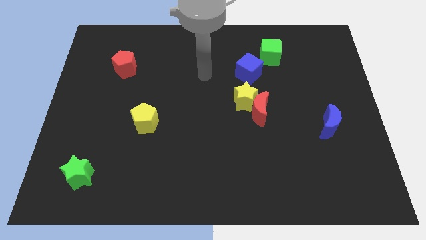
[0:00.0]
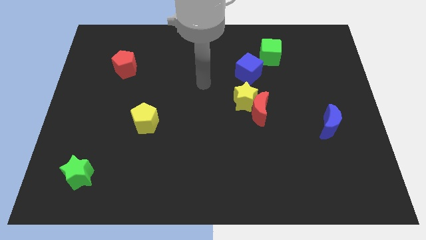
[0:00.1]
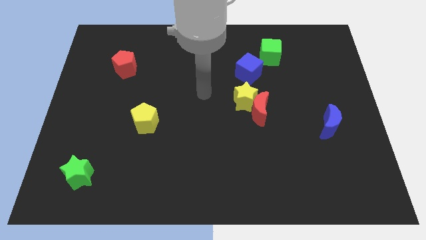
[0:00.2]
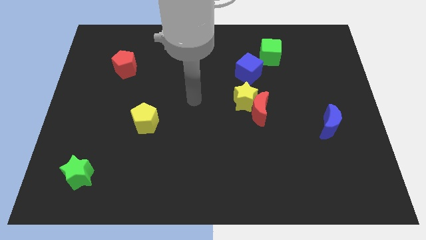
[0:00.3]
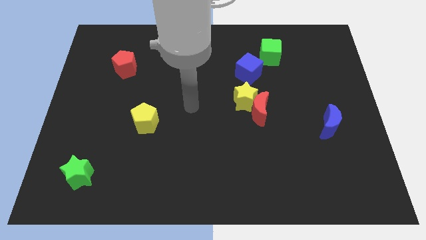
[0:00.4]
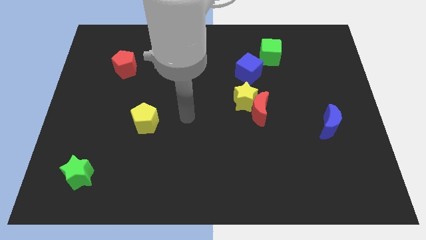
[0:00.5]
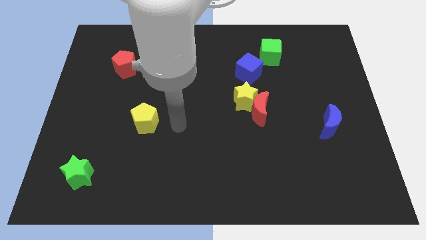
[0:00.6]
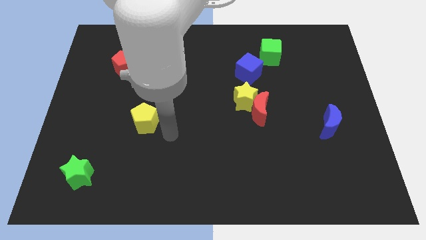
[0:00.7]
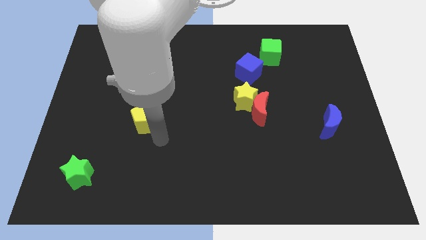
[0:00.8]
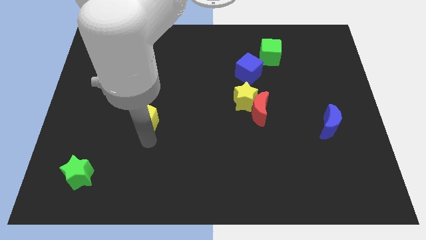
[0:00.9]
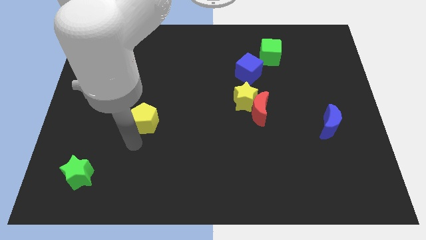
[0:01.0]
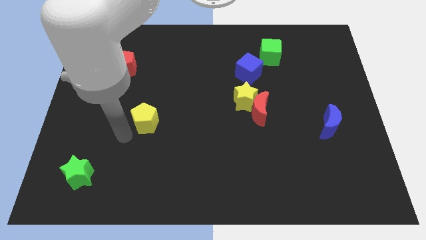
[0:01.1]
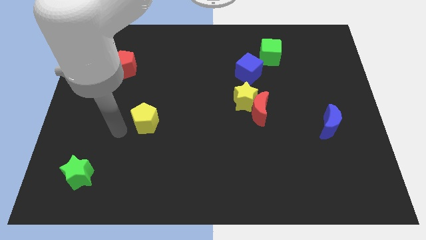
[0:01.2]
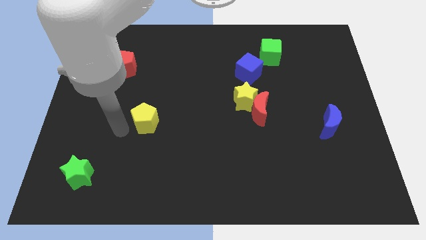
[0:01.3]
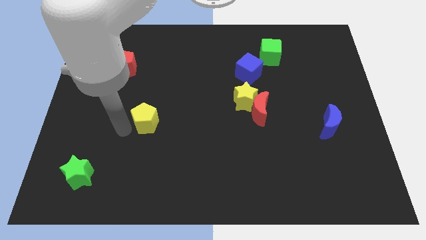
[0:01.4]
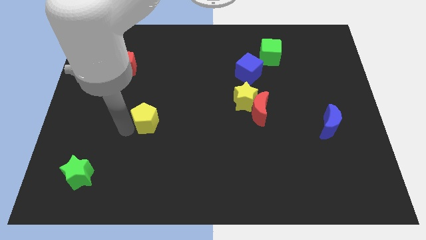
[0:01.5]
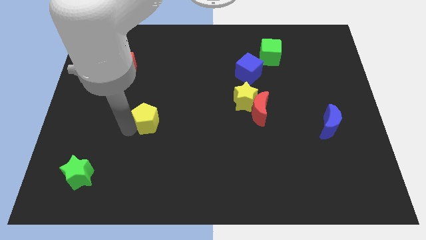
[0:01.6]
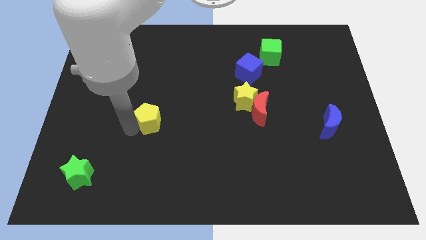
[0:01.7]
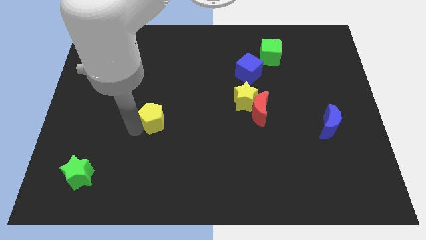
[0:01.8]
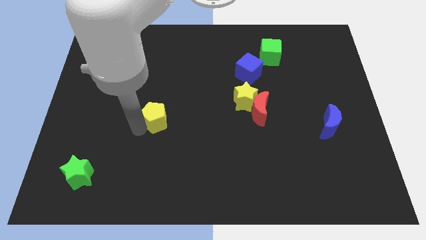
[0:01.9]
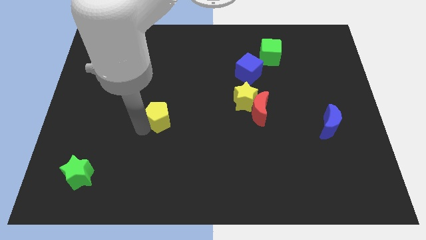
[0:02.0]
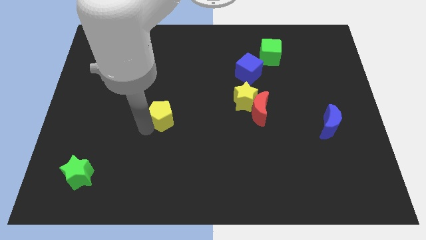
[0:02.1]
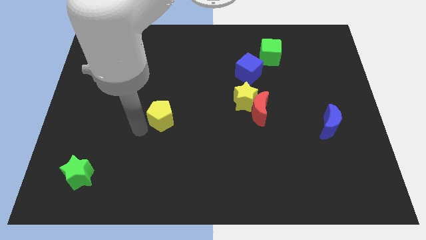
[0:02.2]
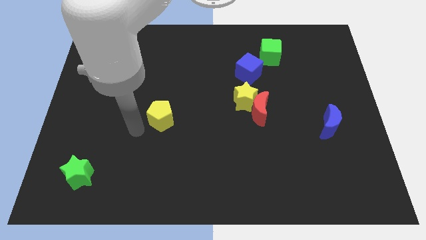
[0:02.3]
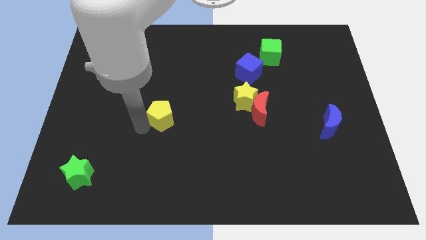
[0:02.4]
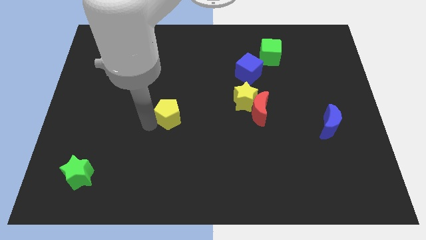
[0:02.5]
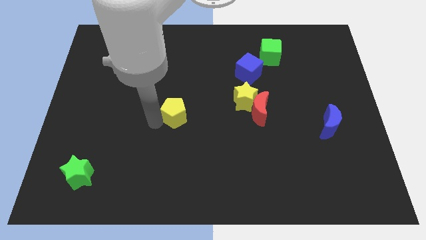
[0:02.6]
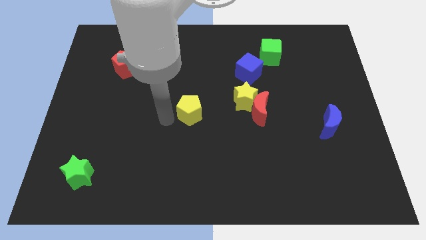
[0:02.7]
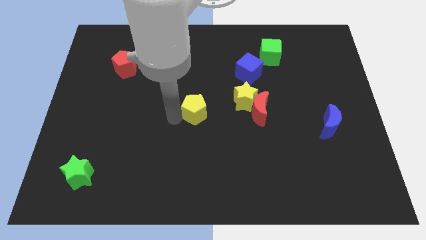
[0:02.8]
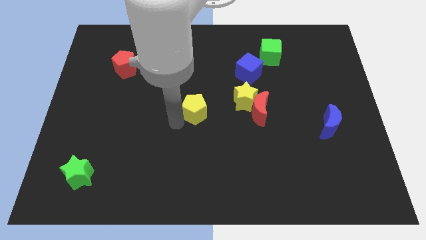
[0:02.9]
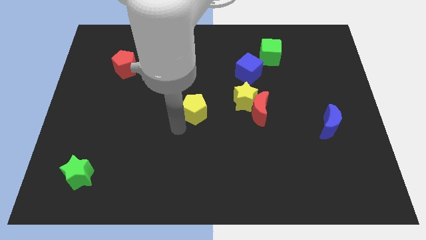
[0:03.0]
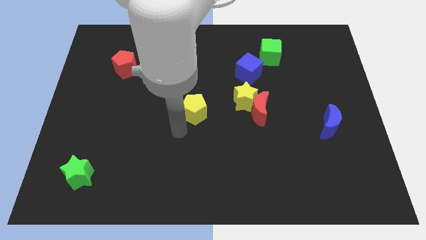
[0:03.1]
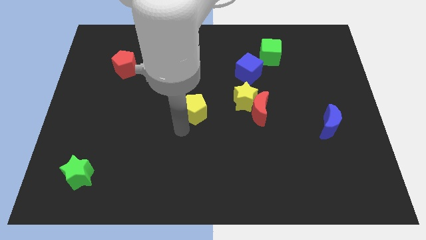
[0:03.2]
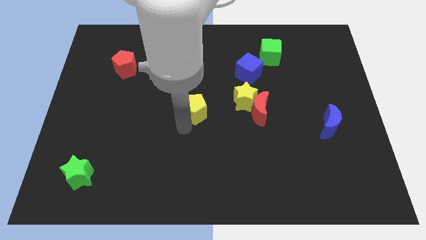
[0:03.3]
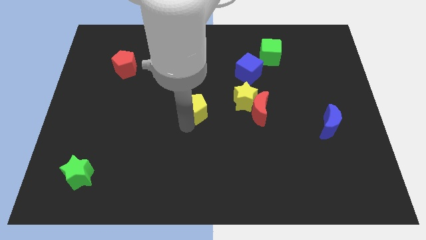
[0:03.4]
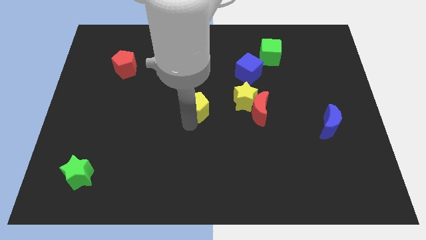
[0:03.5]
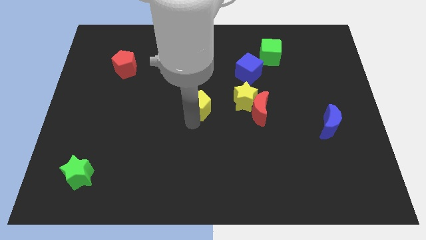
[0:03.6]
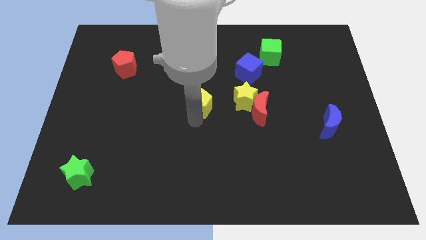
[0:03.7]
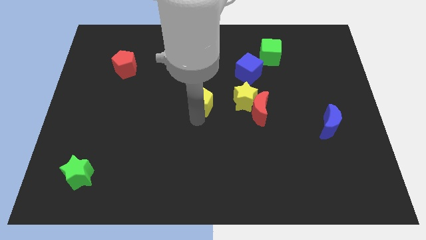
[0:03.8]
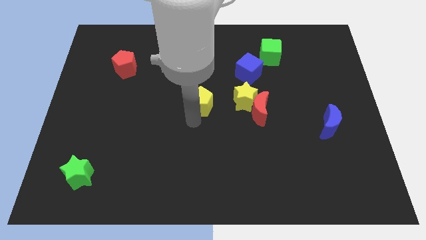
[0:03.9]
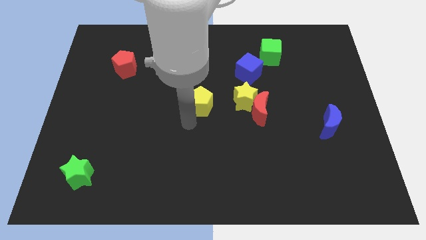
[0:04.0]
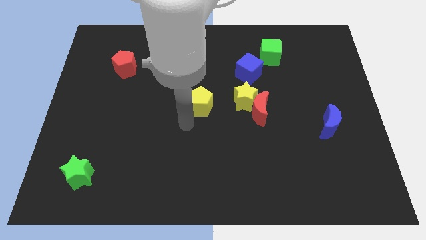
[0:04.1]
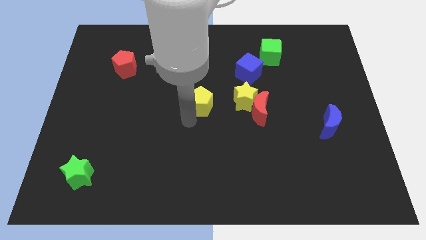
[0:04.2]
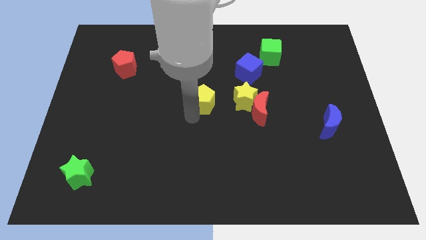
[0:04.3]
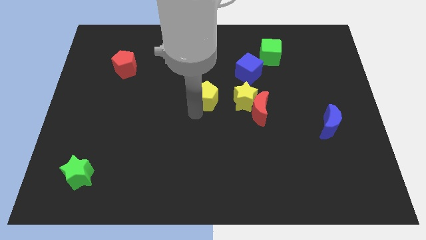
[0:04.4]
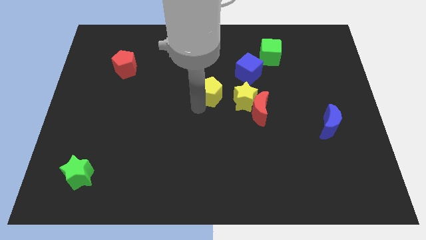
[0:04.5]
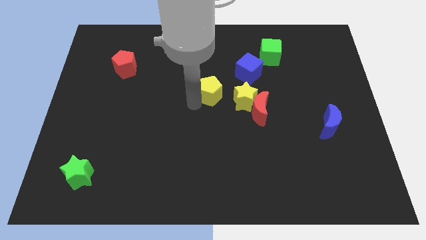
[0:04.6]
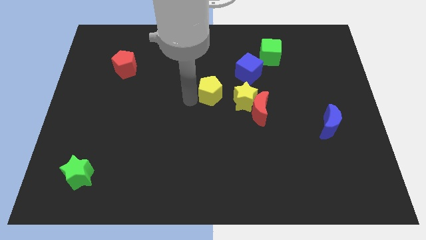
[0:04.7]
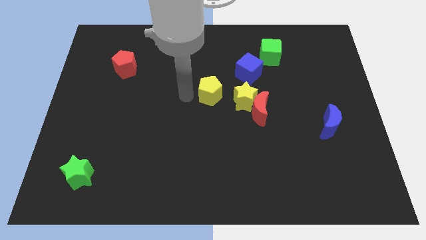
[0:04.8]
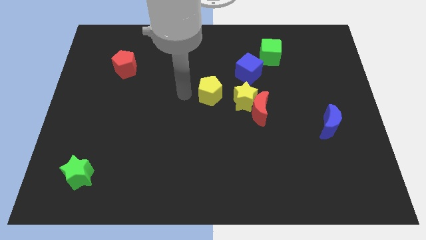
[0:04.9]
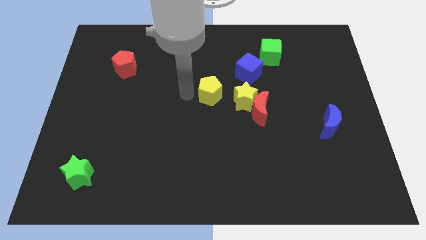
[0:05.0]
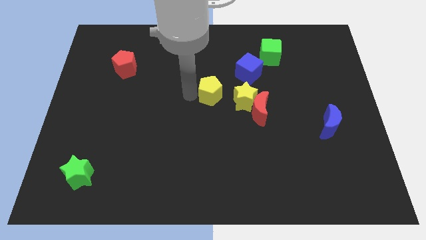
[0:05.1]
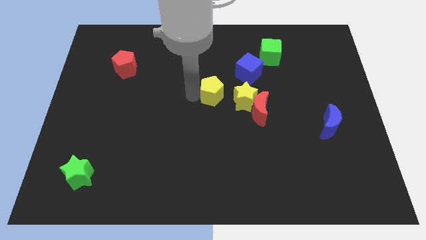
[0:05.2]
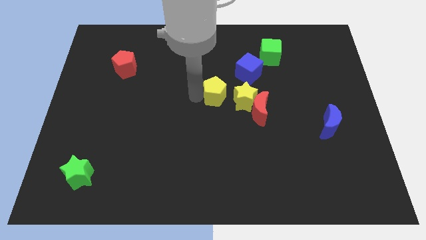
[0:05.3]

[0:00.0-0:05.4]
push the yellow pentagon diagonally up and to the left of the red moon

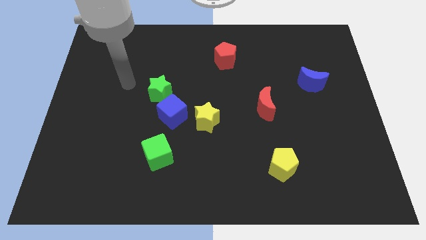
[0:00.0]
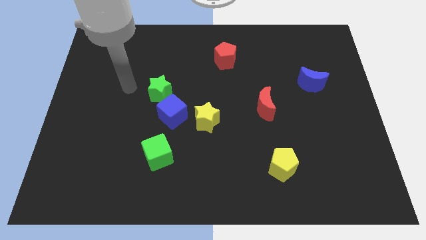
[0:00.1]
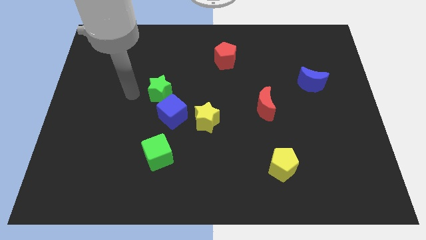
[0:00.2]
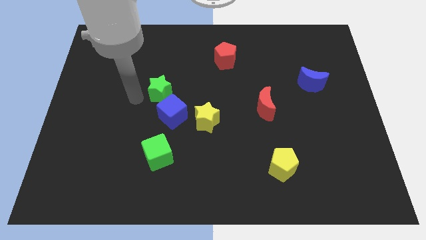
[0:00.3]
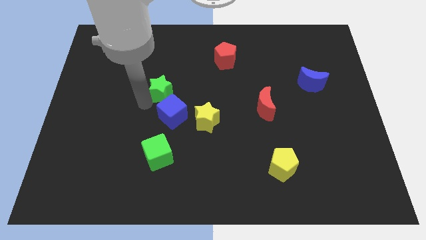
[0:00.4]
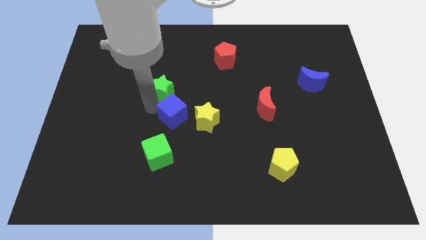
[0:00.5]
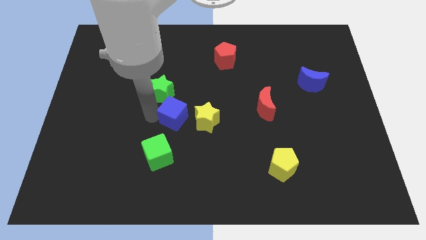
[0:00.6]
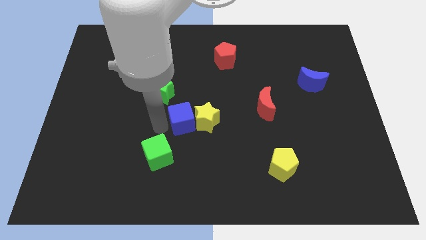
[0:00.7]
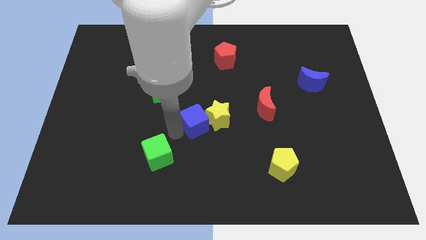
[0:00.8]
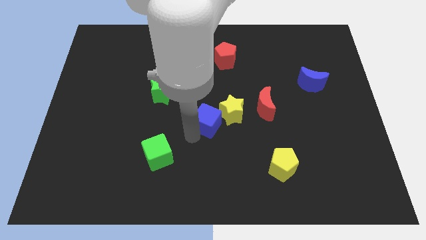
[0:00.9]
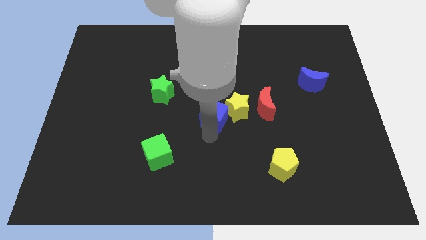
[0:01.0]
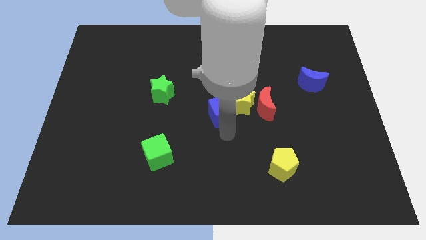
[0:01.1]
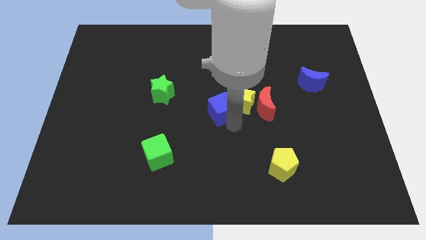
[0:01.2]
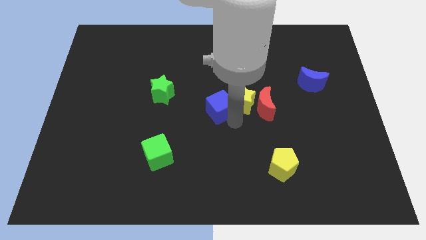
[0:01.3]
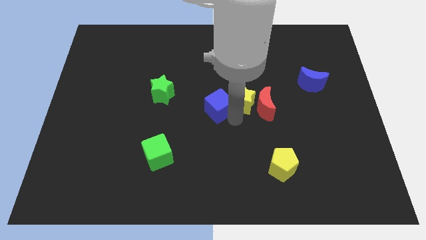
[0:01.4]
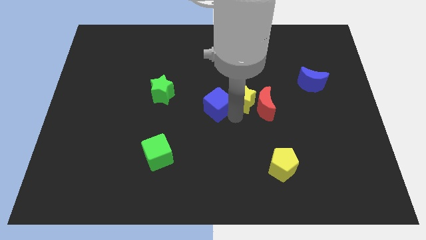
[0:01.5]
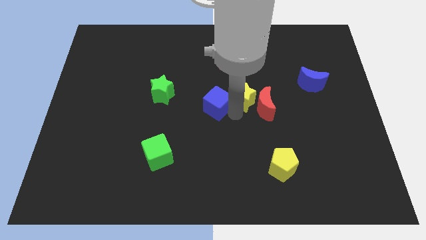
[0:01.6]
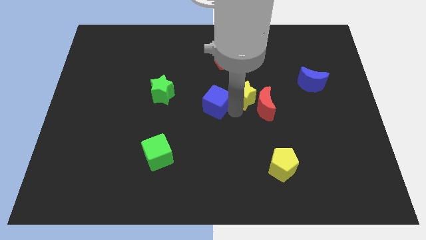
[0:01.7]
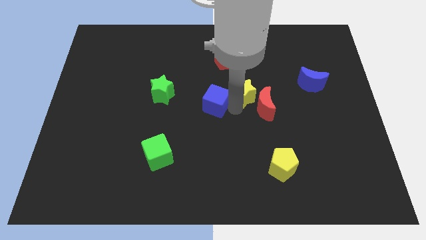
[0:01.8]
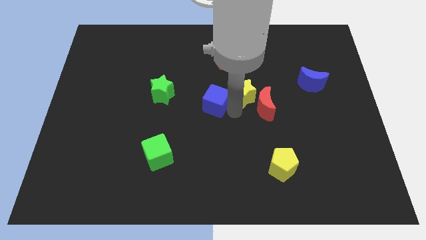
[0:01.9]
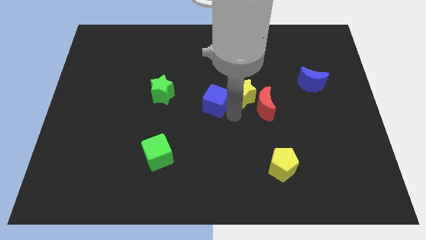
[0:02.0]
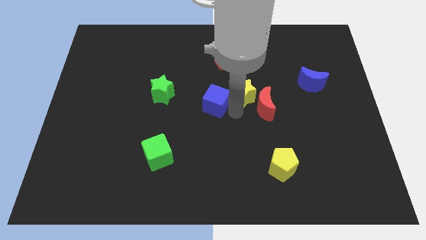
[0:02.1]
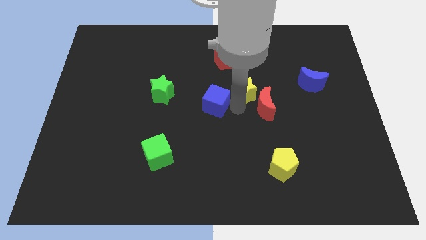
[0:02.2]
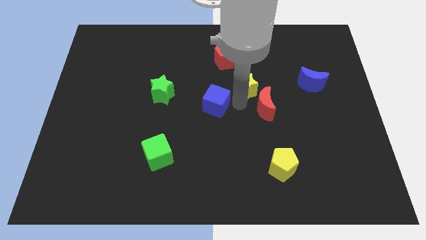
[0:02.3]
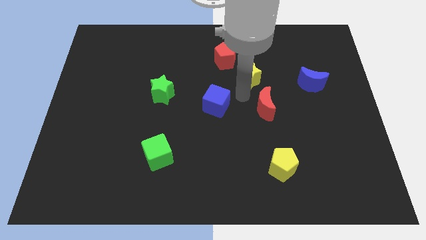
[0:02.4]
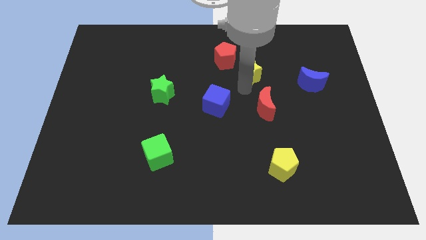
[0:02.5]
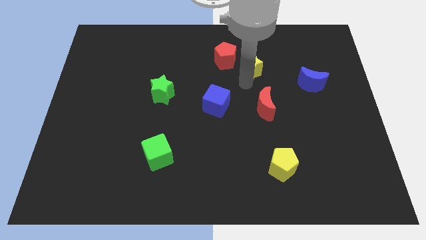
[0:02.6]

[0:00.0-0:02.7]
move the yellow star right of the red pentagon
